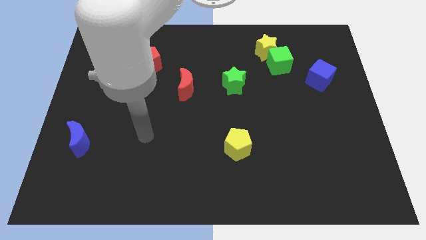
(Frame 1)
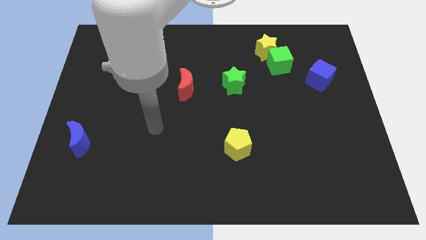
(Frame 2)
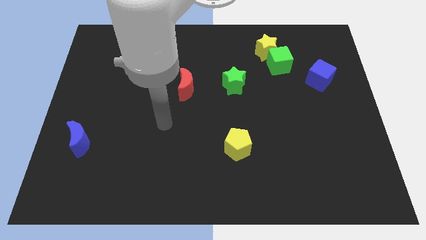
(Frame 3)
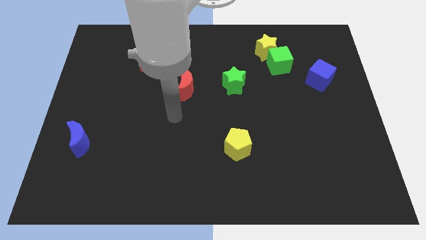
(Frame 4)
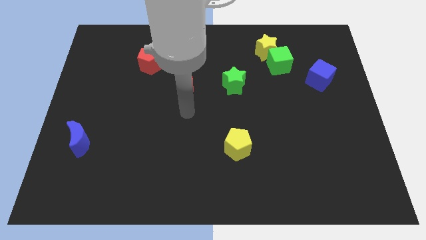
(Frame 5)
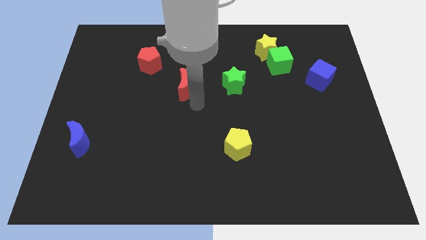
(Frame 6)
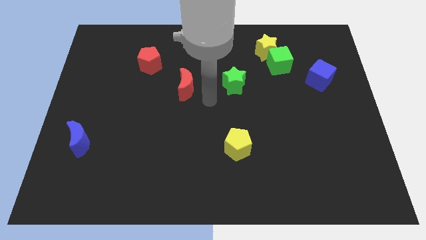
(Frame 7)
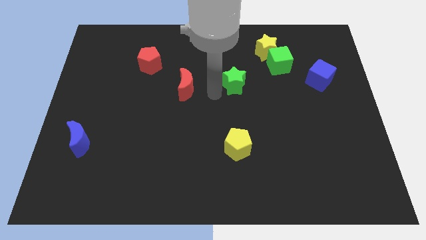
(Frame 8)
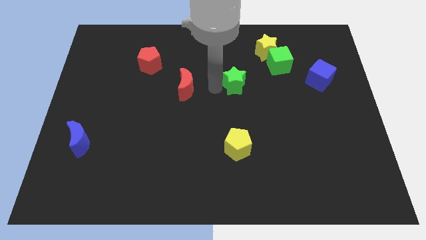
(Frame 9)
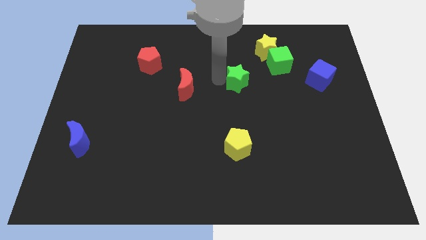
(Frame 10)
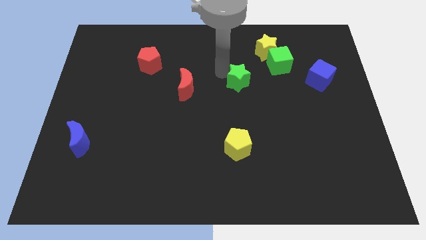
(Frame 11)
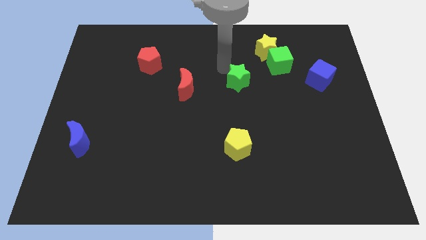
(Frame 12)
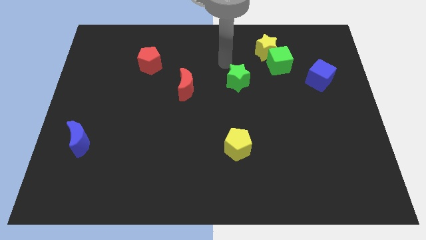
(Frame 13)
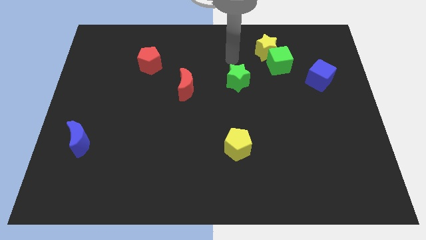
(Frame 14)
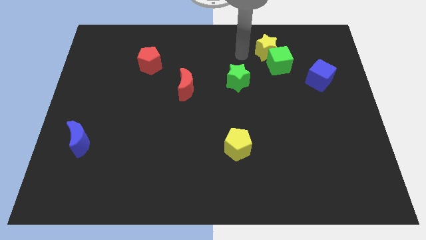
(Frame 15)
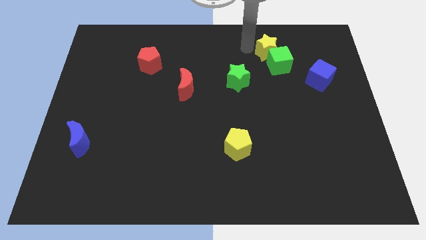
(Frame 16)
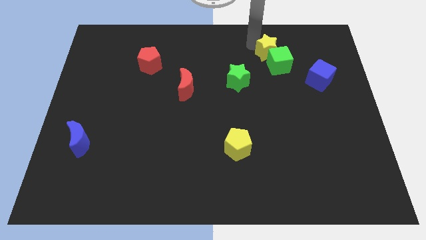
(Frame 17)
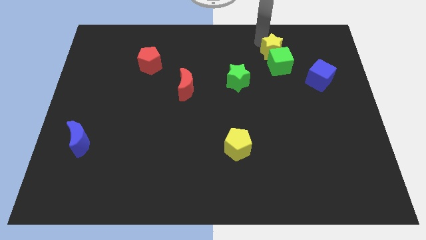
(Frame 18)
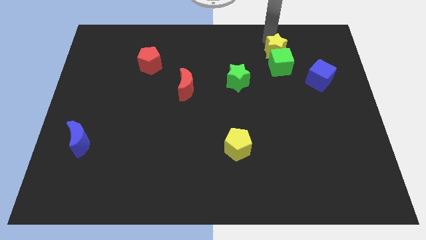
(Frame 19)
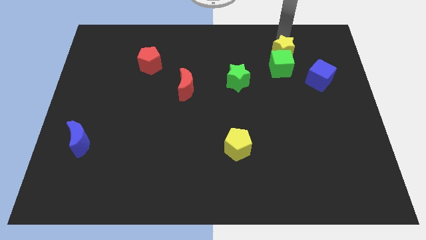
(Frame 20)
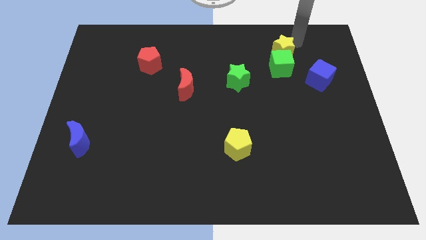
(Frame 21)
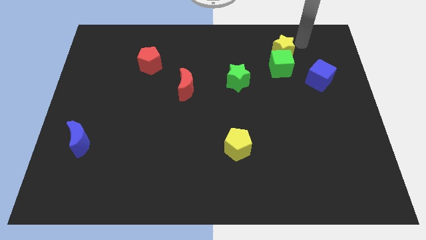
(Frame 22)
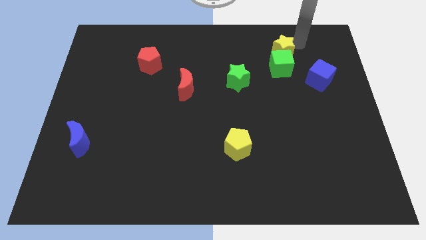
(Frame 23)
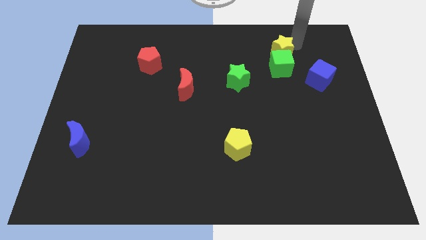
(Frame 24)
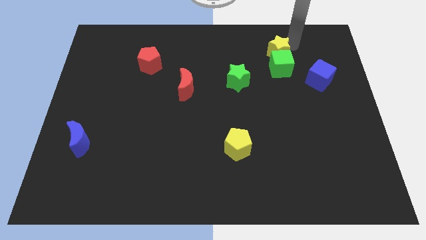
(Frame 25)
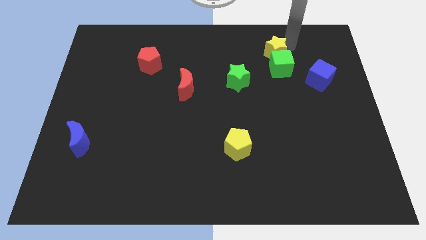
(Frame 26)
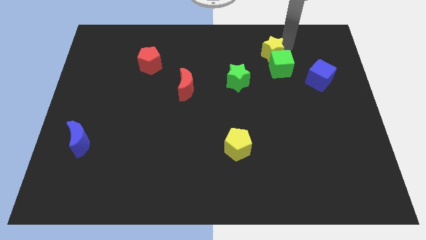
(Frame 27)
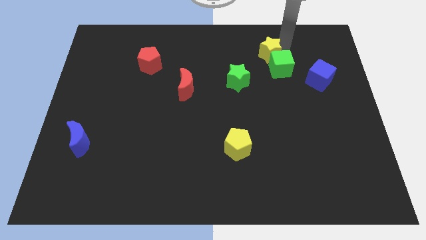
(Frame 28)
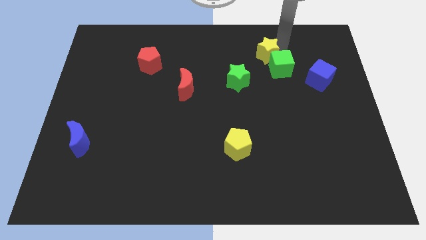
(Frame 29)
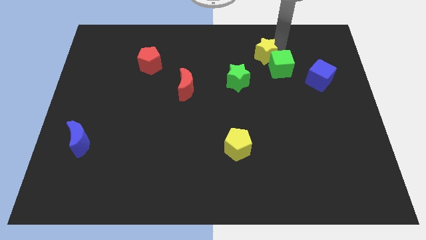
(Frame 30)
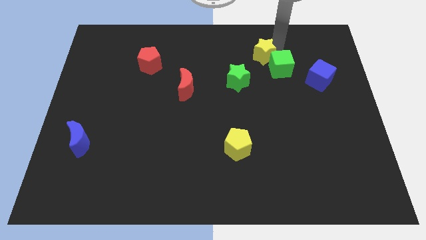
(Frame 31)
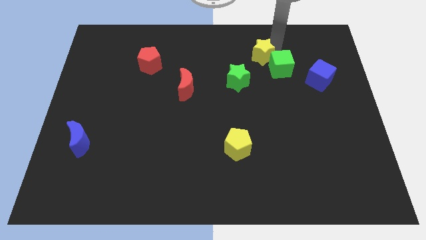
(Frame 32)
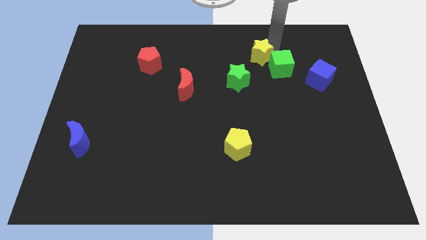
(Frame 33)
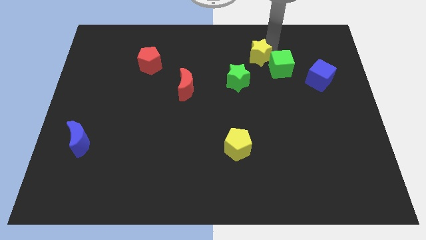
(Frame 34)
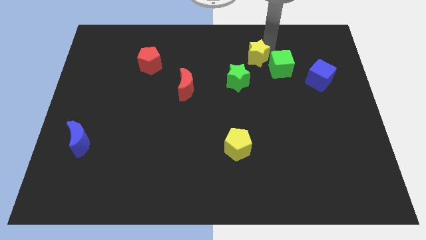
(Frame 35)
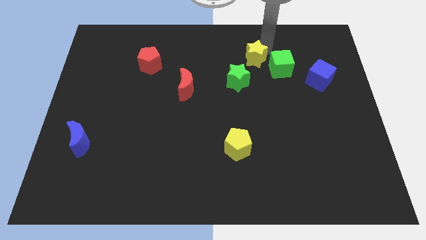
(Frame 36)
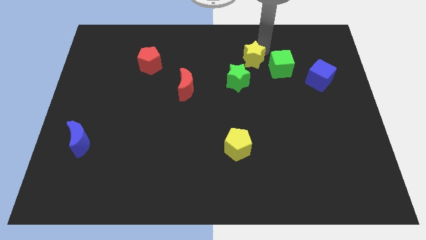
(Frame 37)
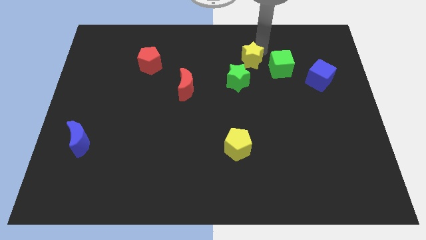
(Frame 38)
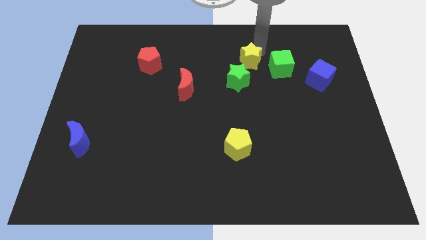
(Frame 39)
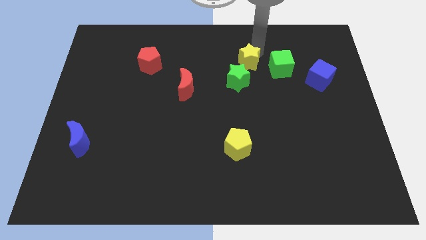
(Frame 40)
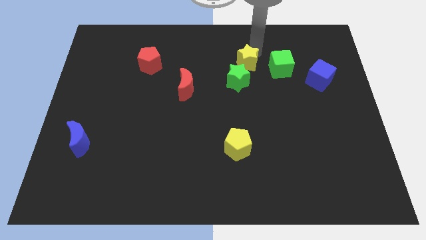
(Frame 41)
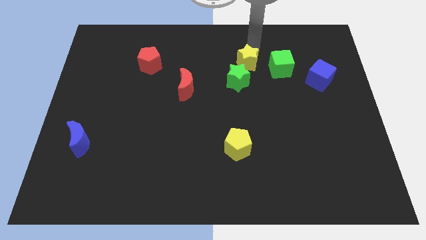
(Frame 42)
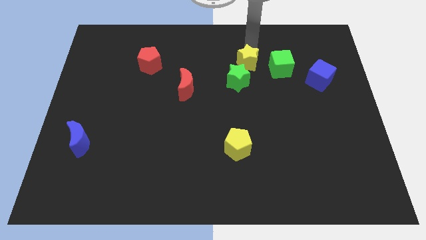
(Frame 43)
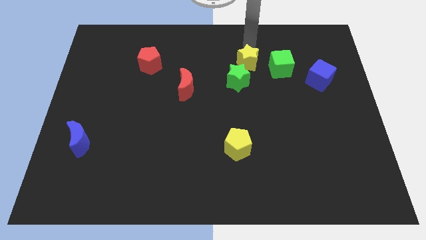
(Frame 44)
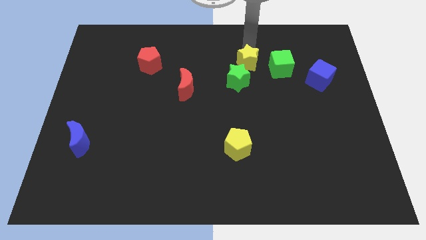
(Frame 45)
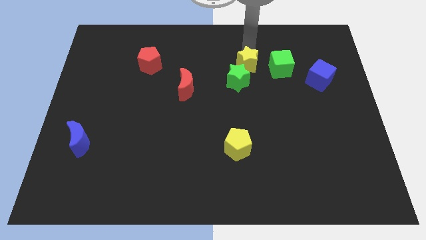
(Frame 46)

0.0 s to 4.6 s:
move the yellow star to the green star

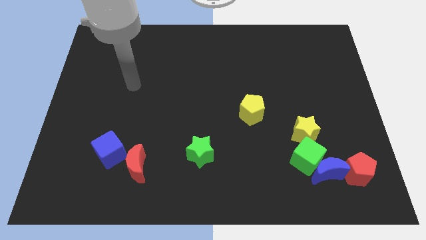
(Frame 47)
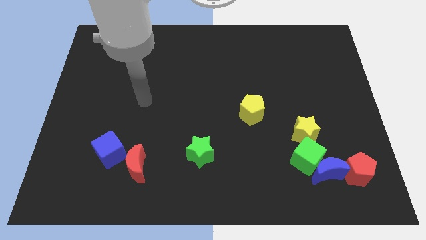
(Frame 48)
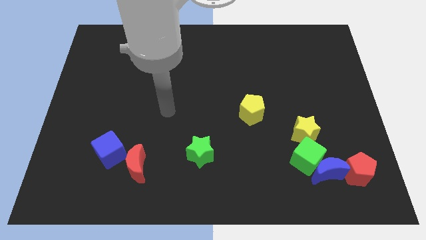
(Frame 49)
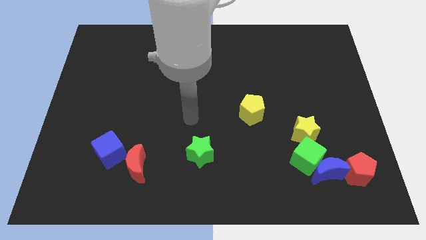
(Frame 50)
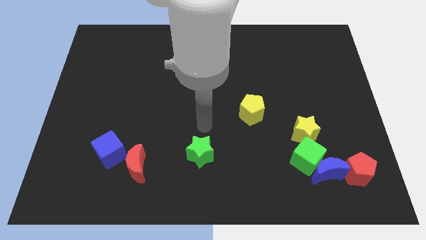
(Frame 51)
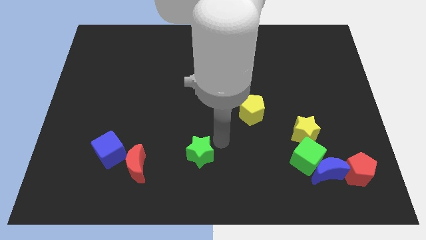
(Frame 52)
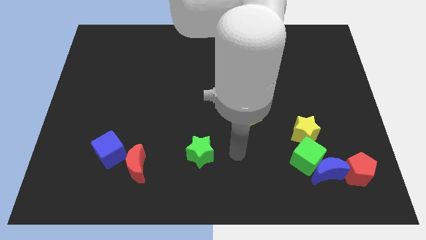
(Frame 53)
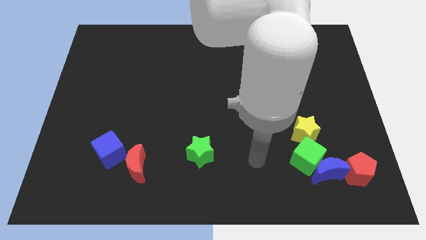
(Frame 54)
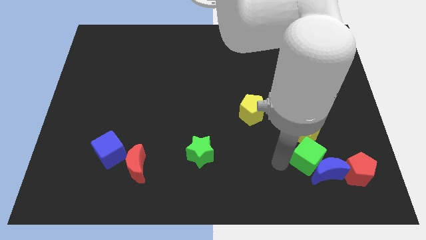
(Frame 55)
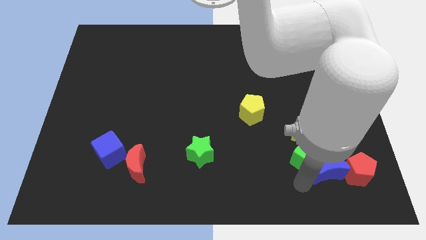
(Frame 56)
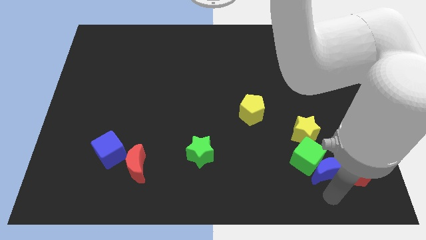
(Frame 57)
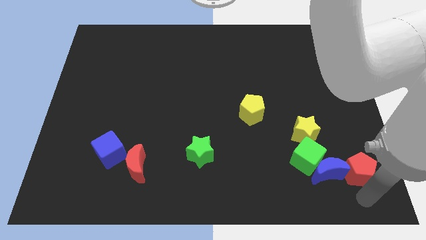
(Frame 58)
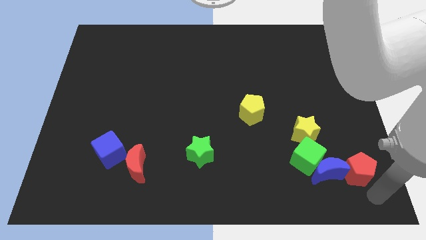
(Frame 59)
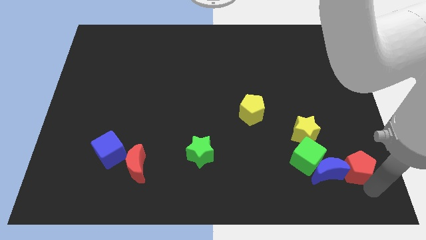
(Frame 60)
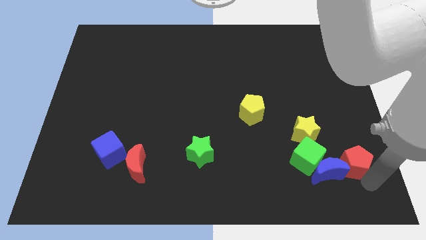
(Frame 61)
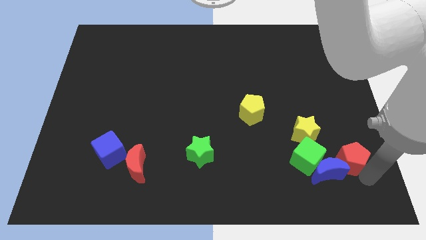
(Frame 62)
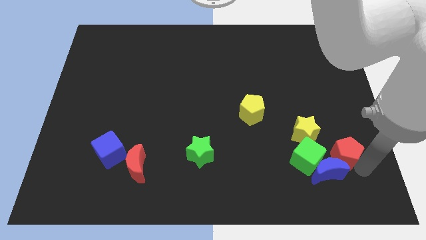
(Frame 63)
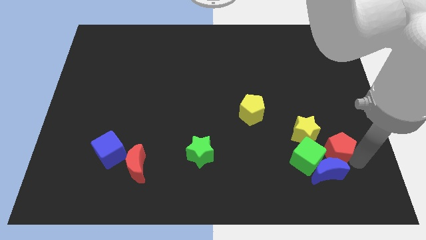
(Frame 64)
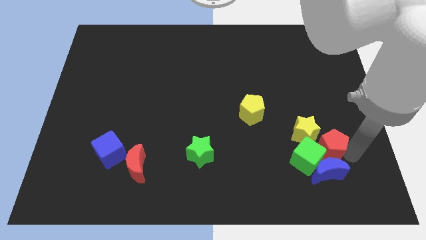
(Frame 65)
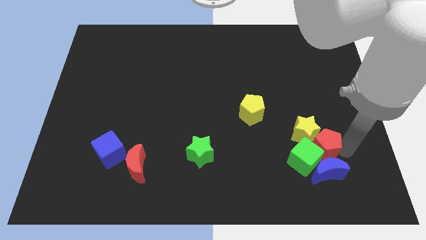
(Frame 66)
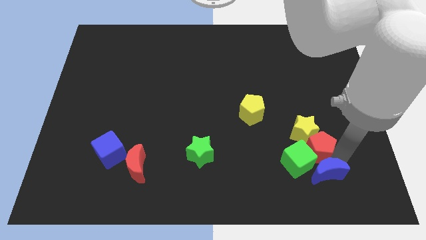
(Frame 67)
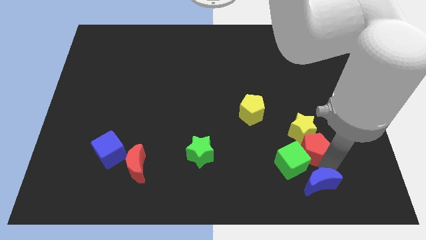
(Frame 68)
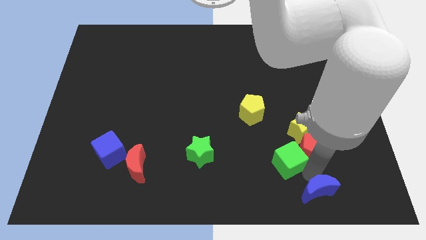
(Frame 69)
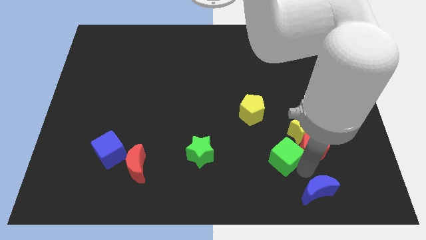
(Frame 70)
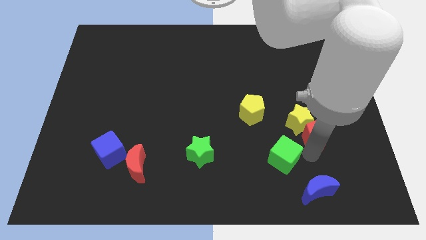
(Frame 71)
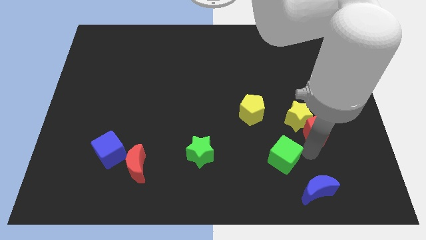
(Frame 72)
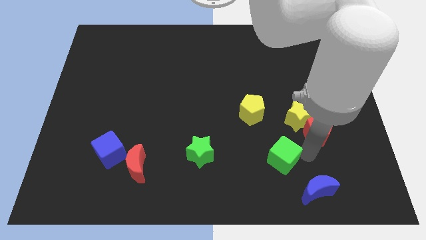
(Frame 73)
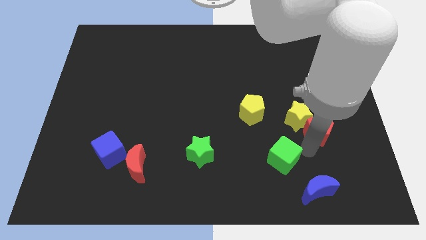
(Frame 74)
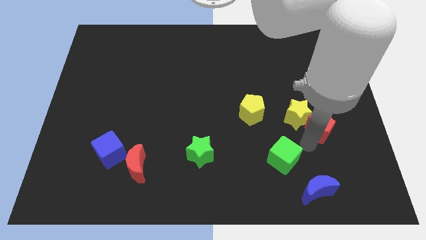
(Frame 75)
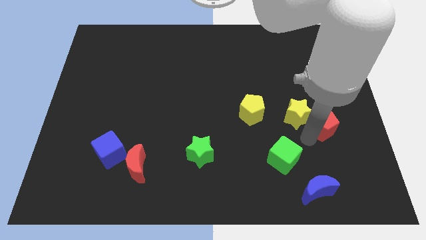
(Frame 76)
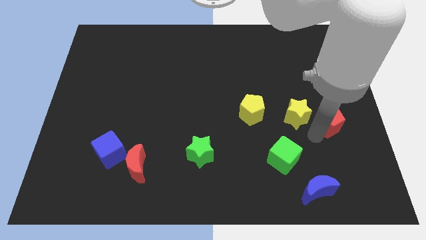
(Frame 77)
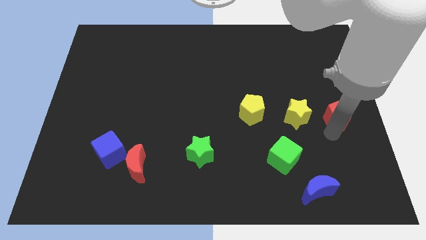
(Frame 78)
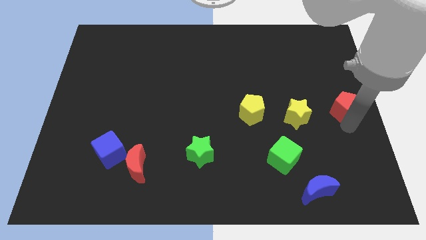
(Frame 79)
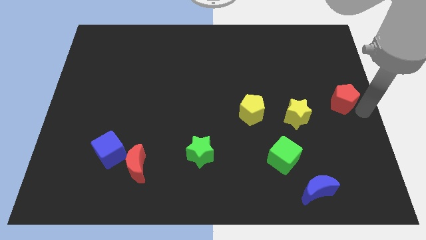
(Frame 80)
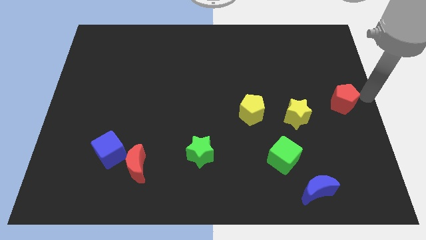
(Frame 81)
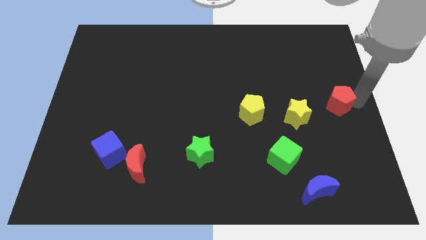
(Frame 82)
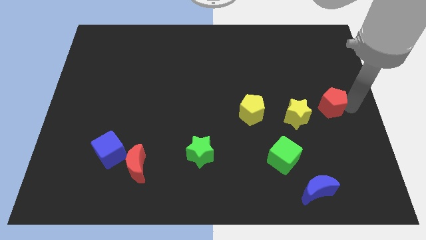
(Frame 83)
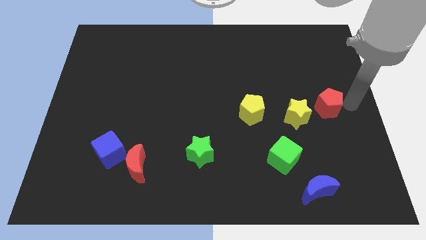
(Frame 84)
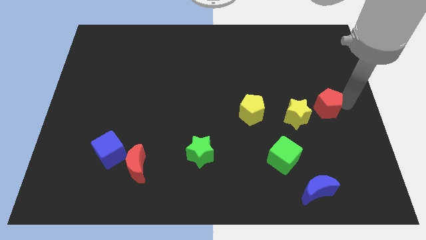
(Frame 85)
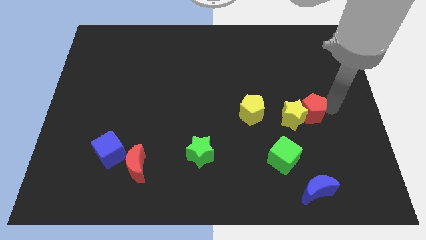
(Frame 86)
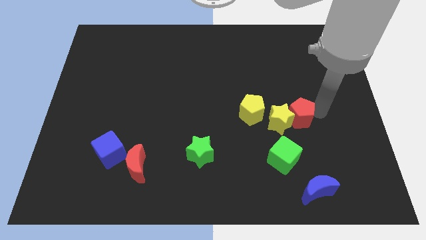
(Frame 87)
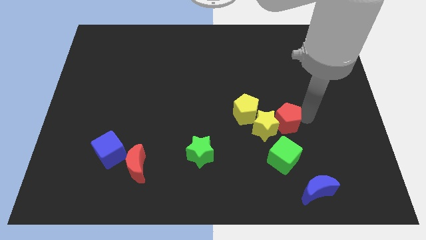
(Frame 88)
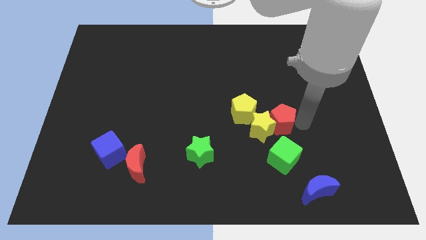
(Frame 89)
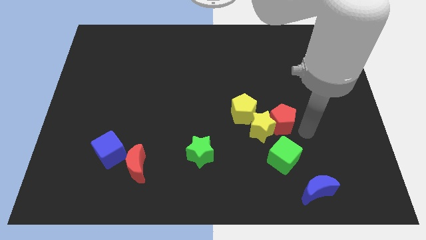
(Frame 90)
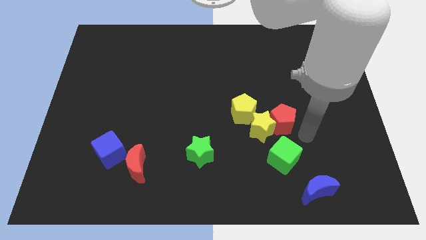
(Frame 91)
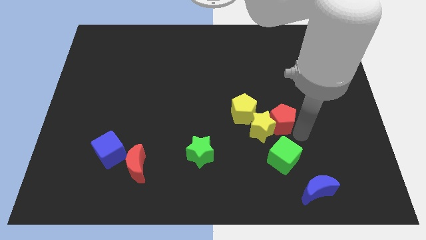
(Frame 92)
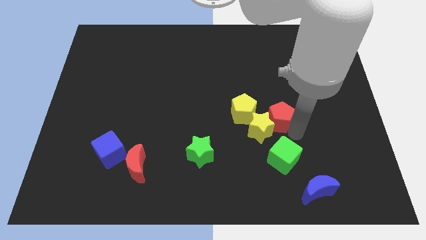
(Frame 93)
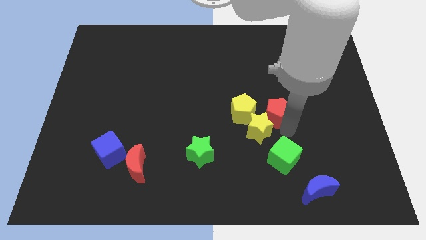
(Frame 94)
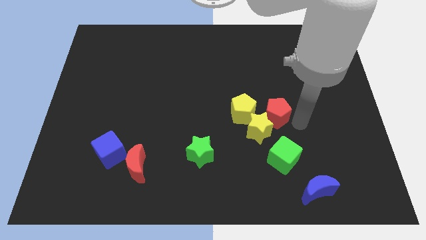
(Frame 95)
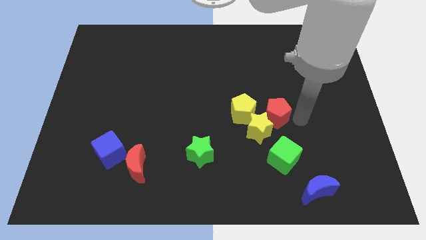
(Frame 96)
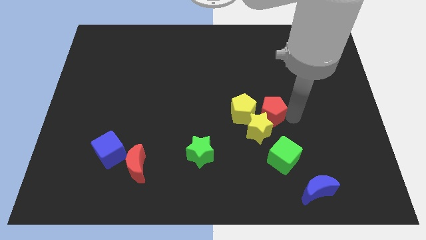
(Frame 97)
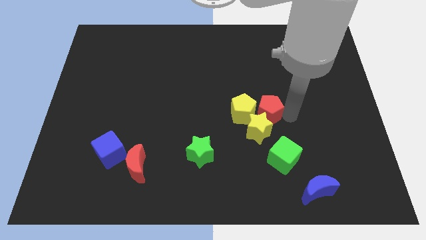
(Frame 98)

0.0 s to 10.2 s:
put the red pentagon close to the yellow pentagon
